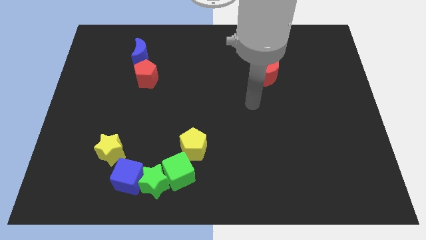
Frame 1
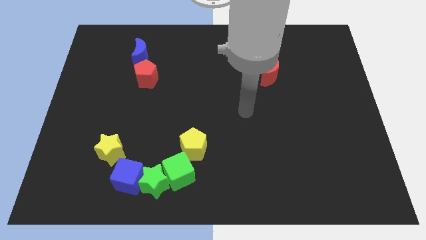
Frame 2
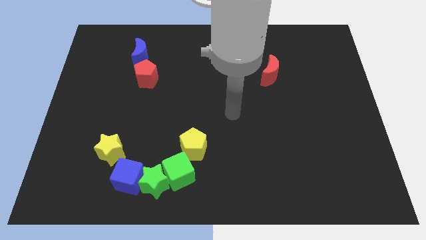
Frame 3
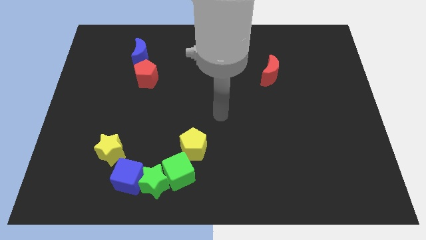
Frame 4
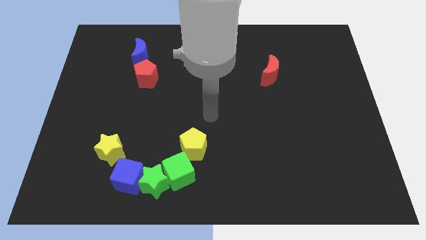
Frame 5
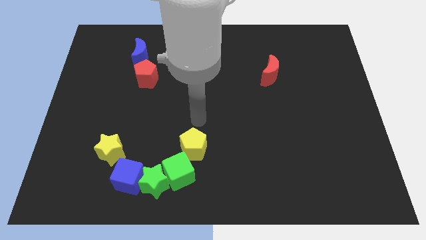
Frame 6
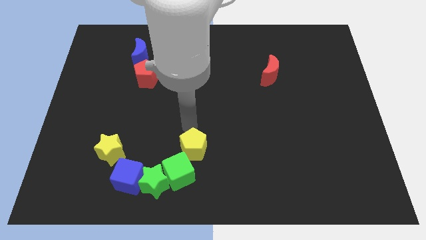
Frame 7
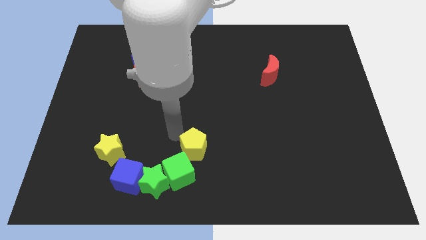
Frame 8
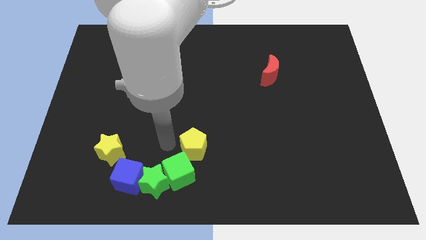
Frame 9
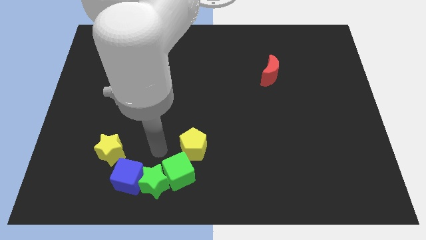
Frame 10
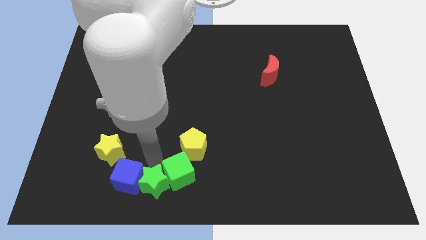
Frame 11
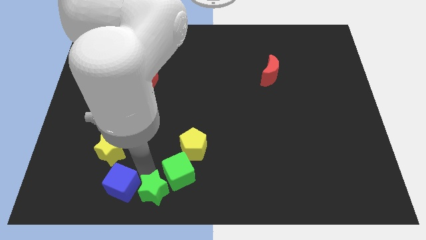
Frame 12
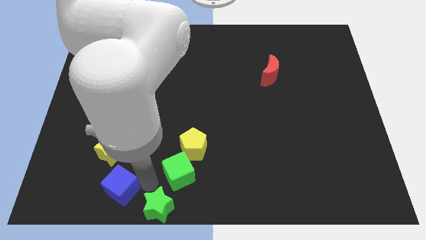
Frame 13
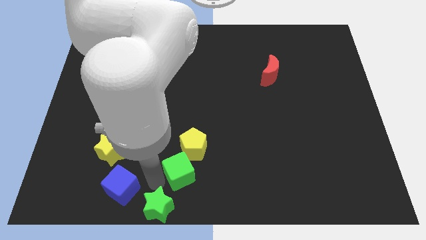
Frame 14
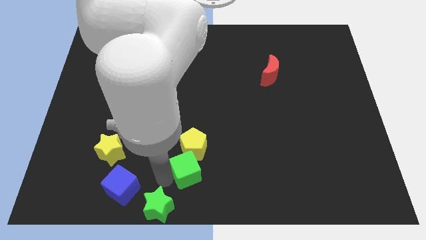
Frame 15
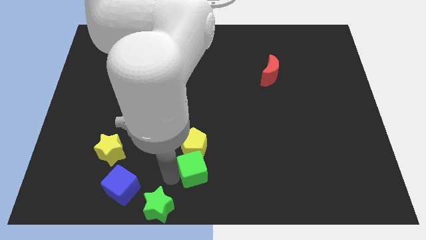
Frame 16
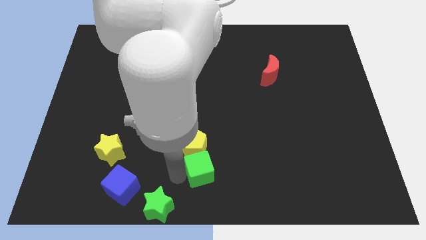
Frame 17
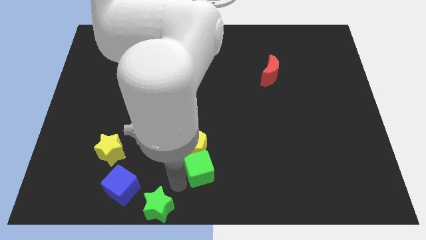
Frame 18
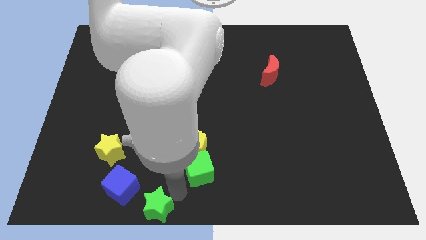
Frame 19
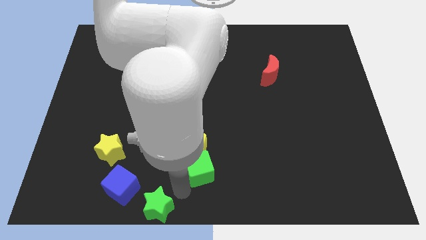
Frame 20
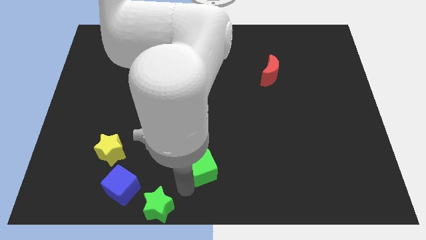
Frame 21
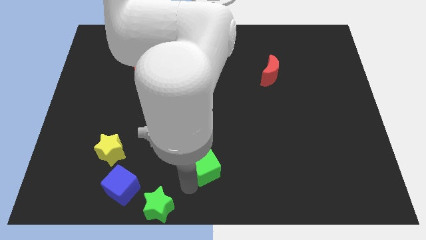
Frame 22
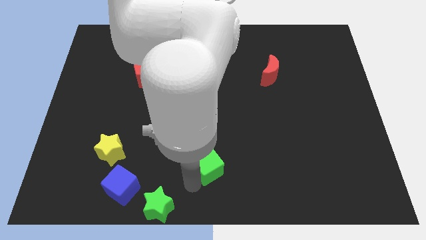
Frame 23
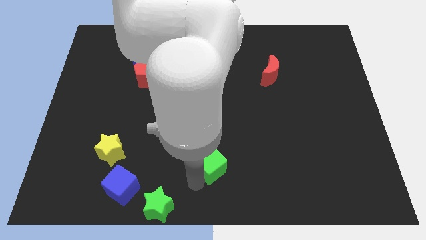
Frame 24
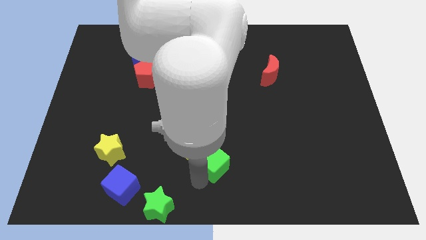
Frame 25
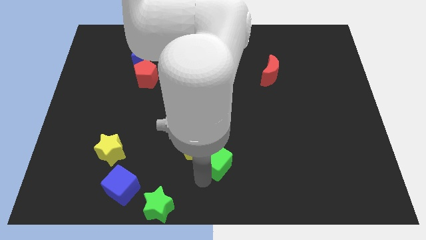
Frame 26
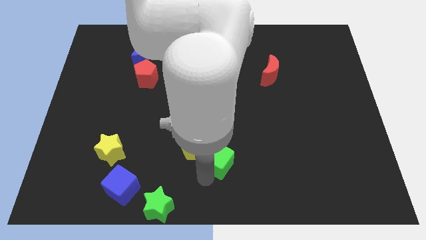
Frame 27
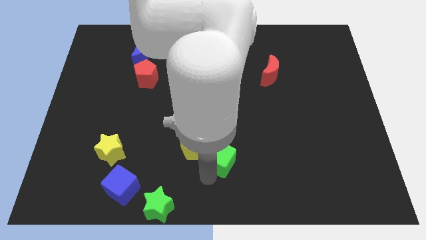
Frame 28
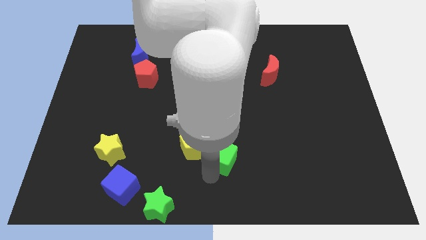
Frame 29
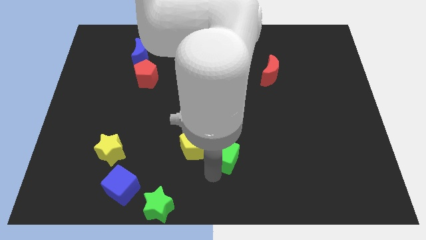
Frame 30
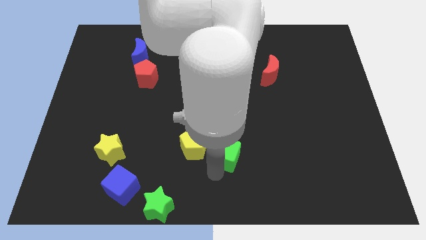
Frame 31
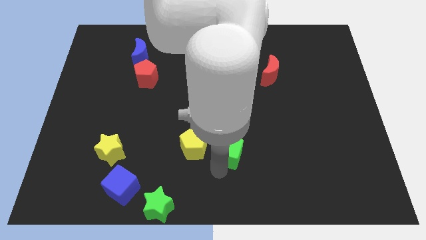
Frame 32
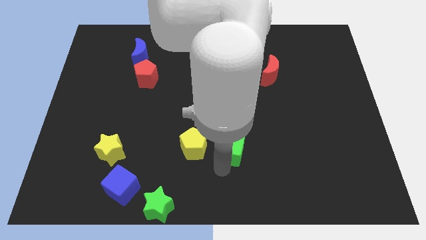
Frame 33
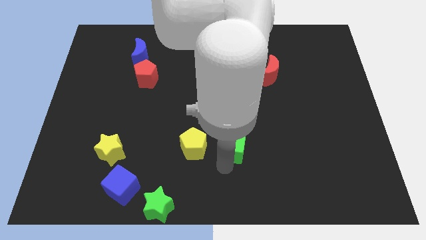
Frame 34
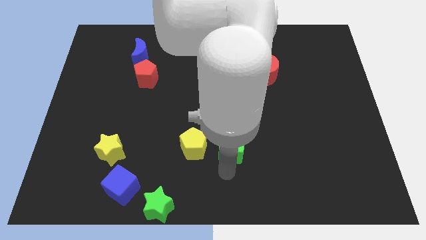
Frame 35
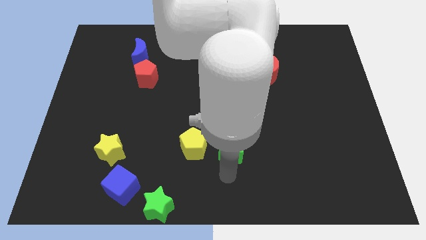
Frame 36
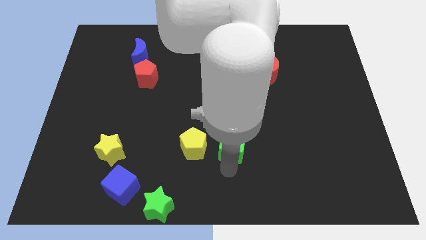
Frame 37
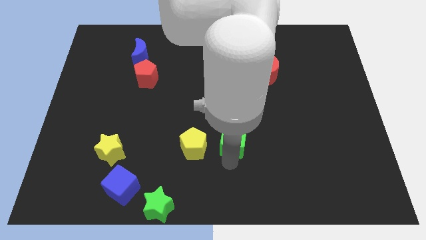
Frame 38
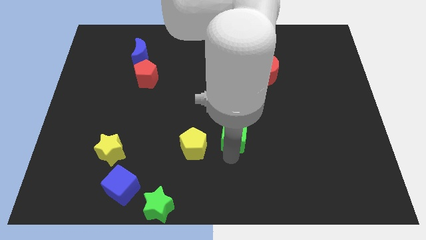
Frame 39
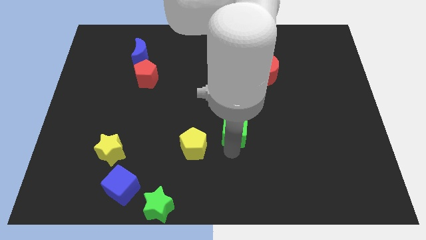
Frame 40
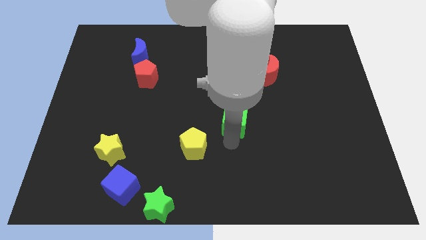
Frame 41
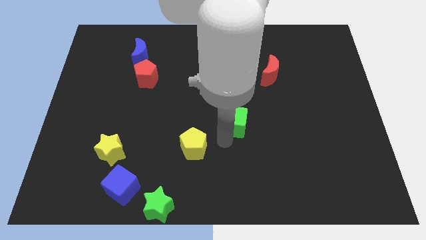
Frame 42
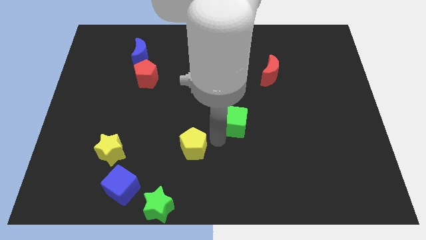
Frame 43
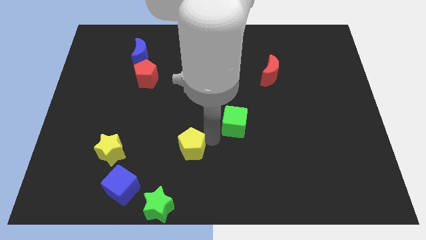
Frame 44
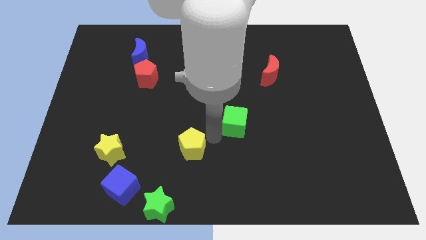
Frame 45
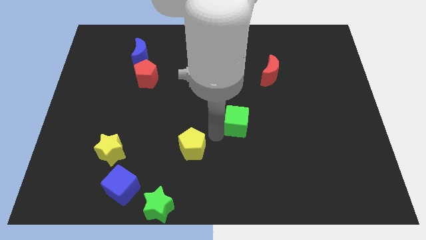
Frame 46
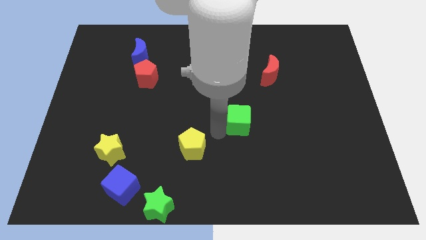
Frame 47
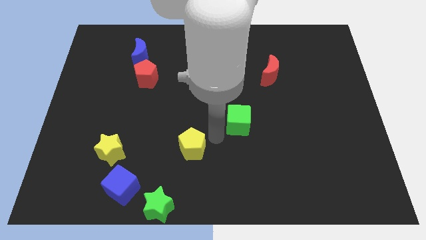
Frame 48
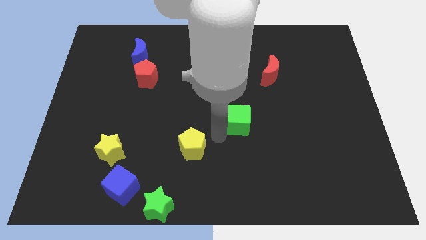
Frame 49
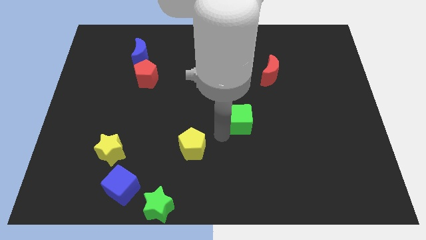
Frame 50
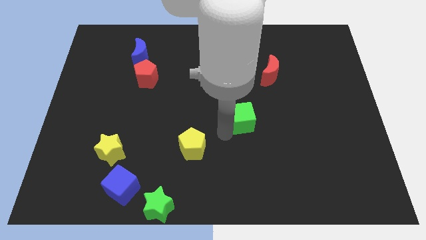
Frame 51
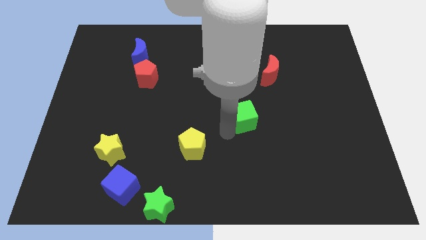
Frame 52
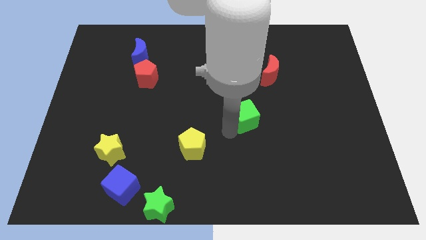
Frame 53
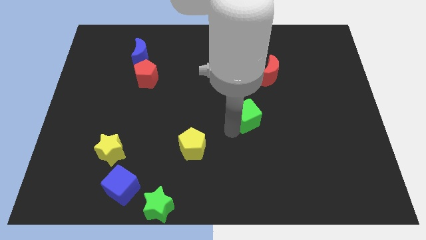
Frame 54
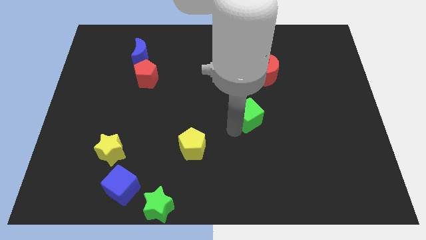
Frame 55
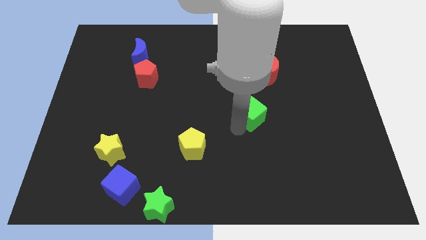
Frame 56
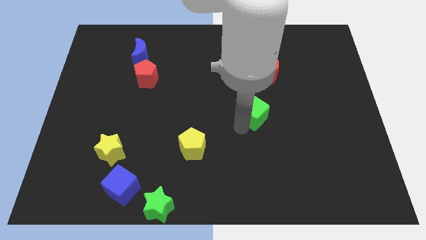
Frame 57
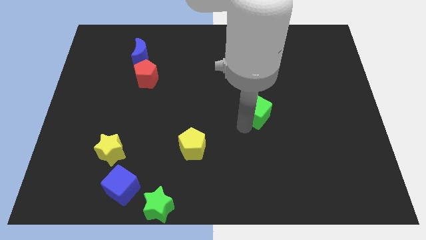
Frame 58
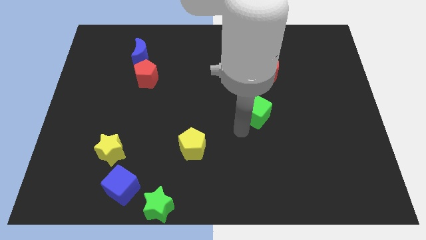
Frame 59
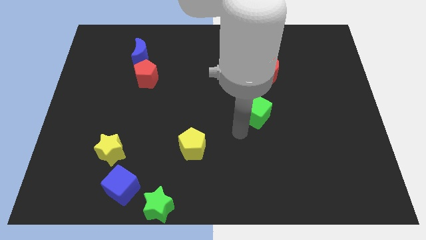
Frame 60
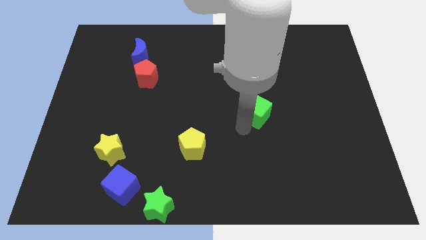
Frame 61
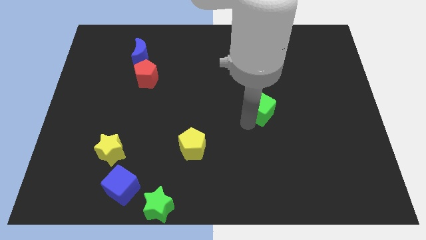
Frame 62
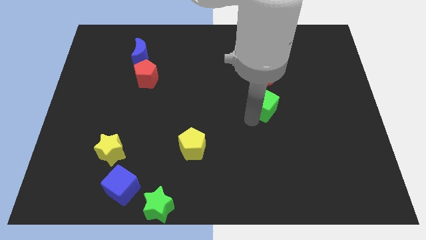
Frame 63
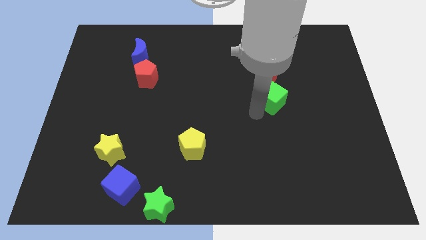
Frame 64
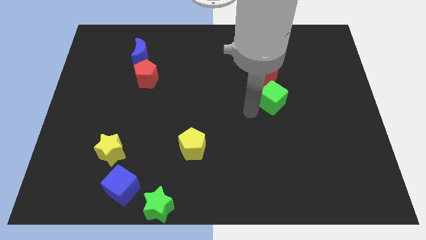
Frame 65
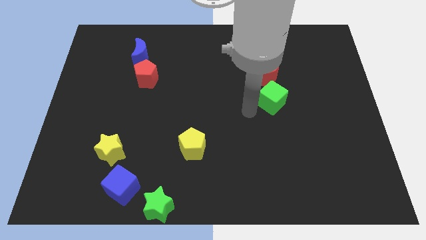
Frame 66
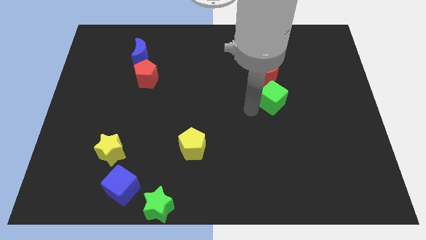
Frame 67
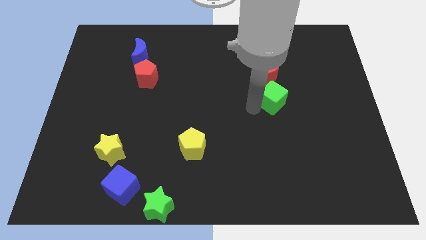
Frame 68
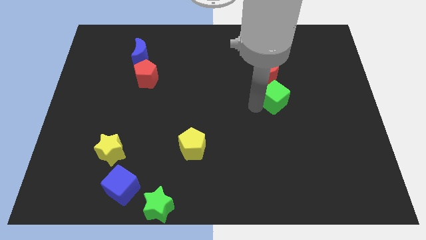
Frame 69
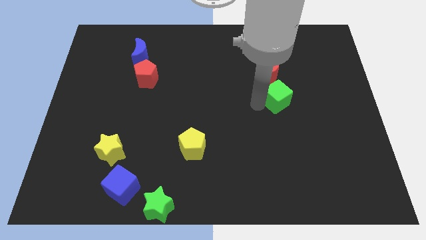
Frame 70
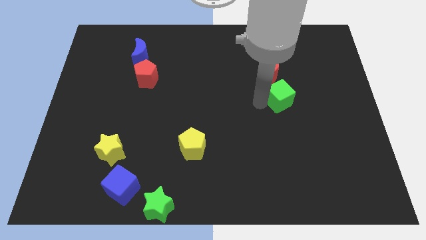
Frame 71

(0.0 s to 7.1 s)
move the green cube to the bottom right of the red moon
